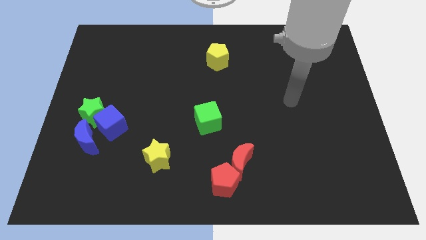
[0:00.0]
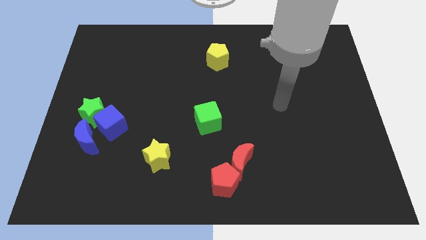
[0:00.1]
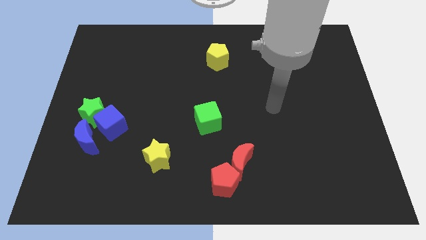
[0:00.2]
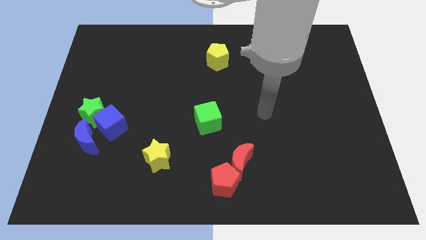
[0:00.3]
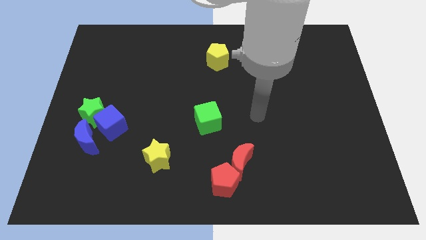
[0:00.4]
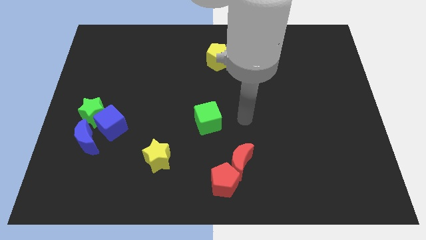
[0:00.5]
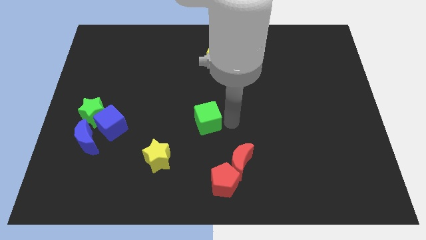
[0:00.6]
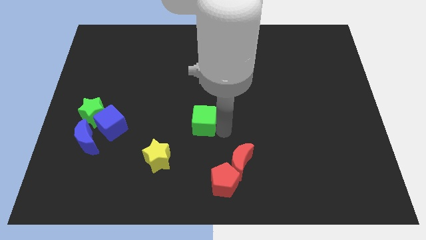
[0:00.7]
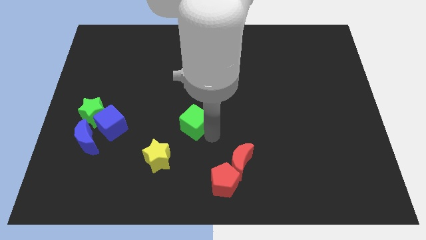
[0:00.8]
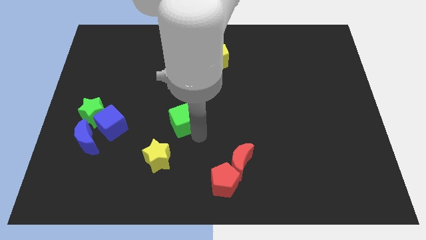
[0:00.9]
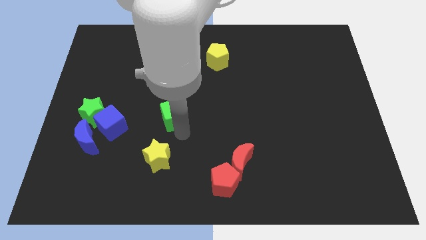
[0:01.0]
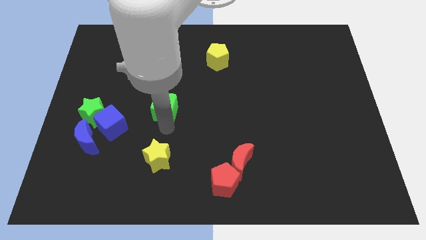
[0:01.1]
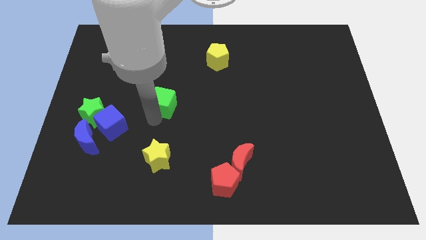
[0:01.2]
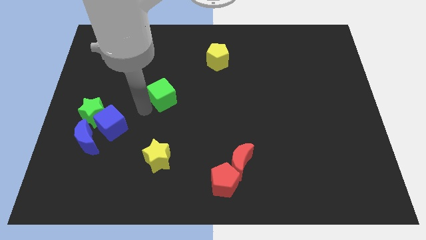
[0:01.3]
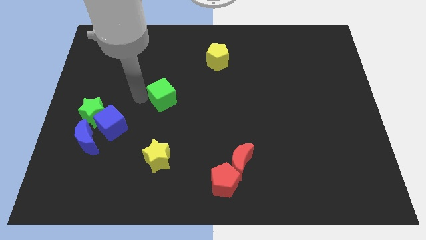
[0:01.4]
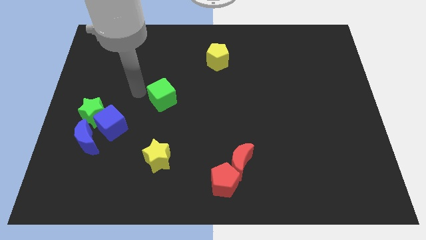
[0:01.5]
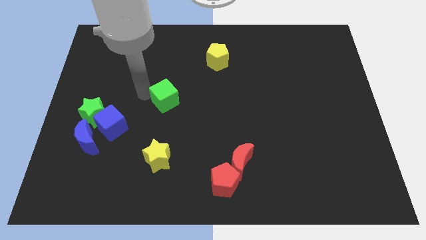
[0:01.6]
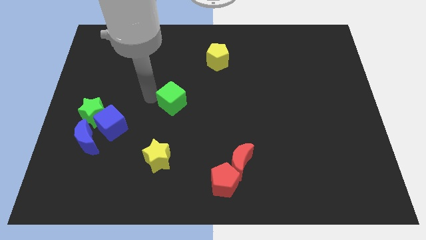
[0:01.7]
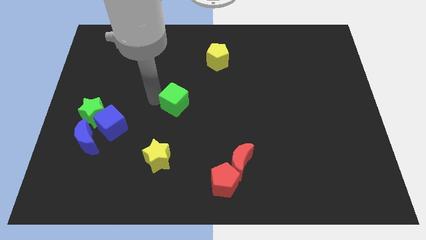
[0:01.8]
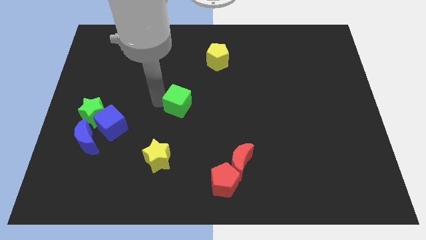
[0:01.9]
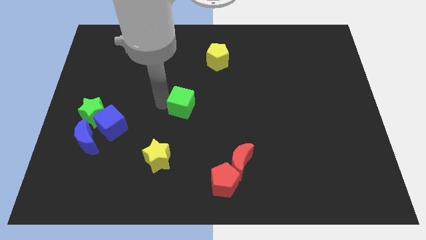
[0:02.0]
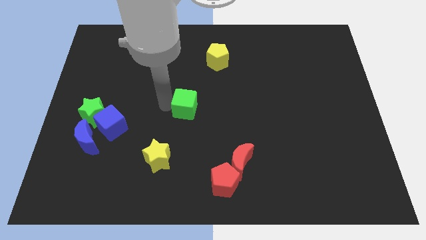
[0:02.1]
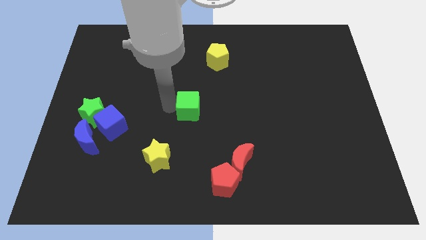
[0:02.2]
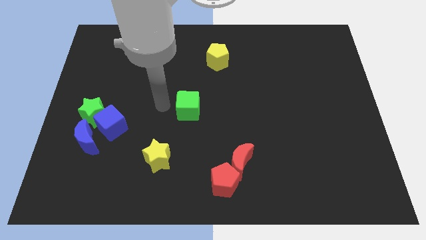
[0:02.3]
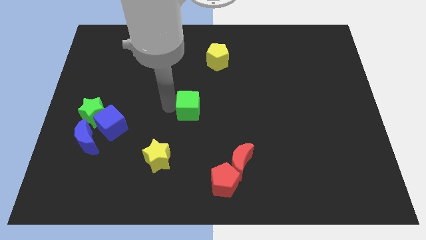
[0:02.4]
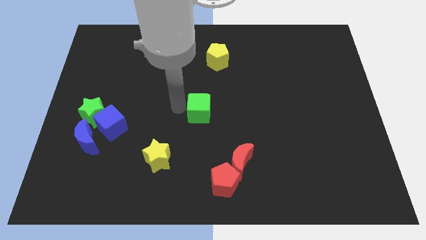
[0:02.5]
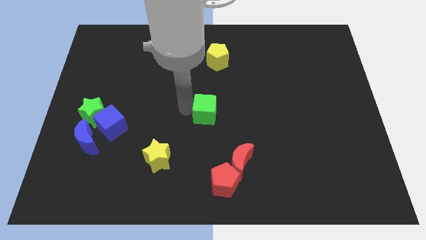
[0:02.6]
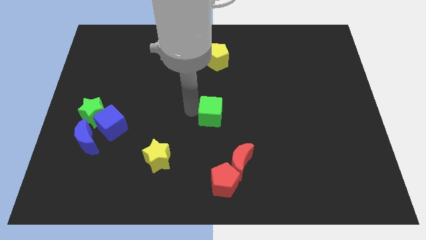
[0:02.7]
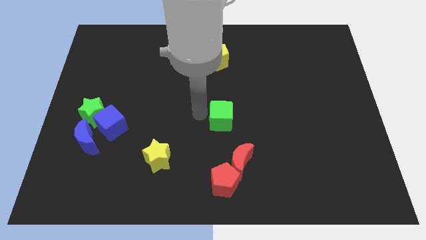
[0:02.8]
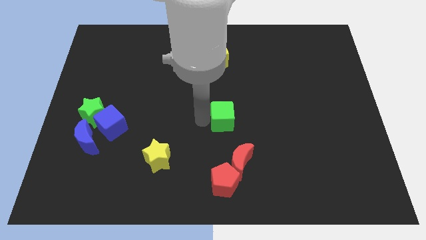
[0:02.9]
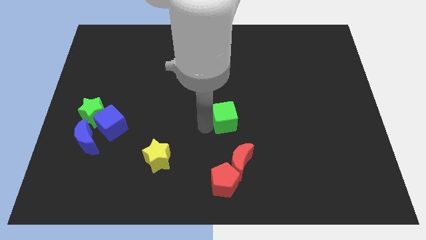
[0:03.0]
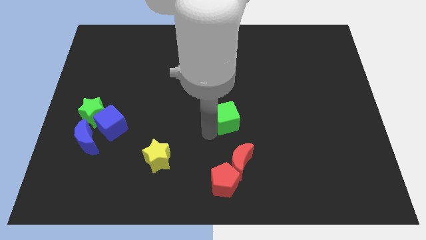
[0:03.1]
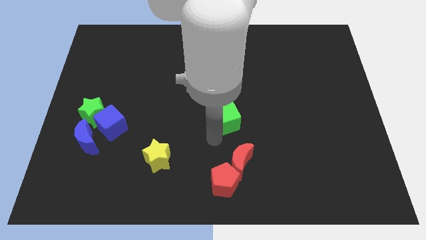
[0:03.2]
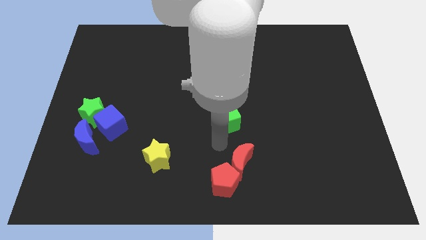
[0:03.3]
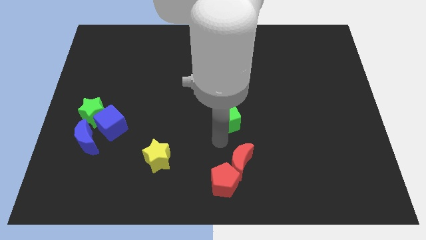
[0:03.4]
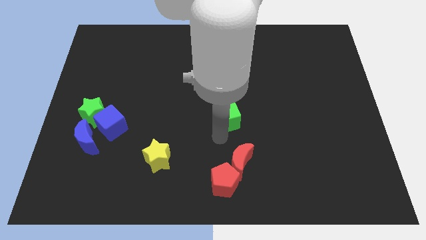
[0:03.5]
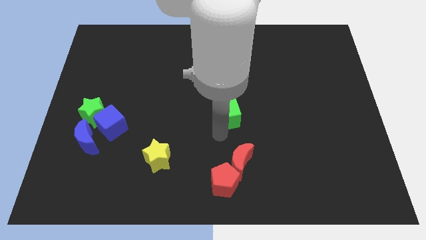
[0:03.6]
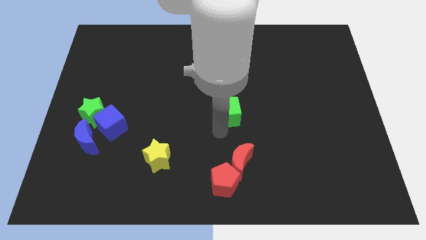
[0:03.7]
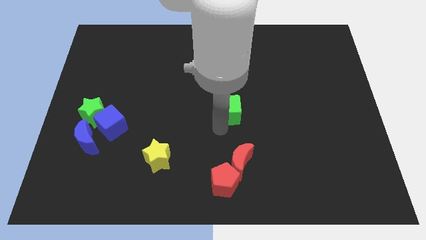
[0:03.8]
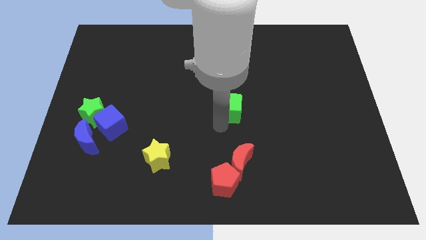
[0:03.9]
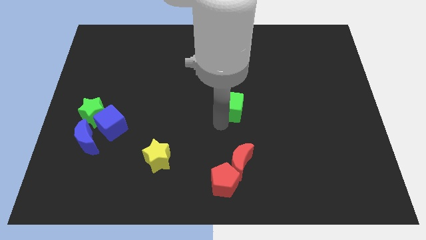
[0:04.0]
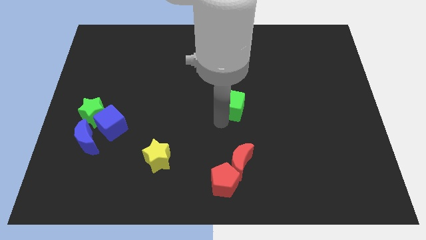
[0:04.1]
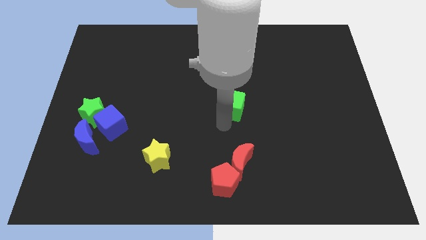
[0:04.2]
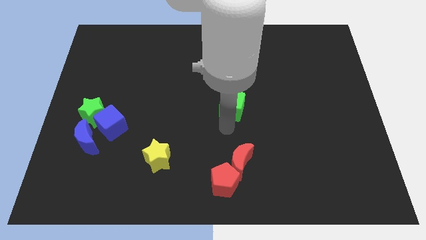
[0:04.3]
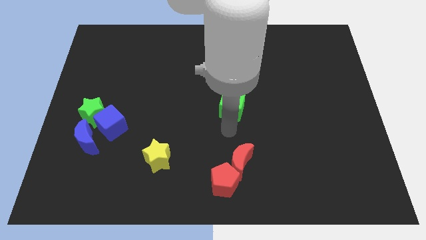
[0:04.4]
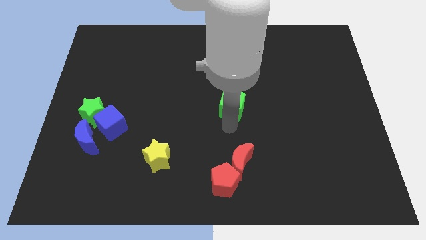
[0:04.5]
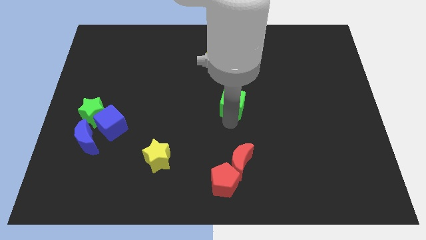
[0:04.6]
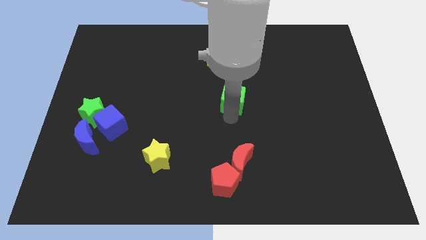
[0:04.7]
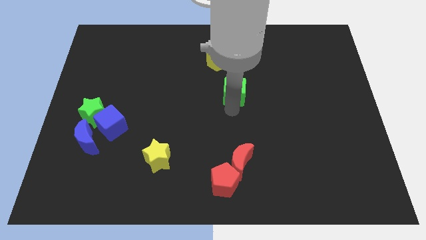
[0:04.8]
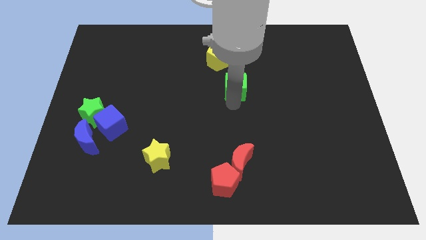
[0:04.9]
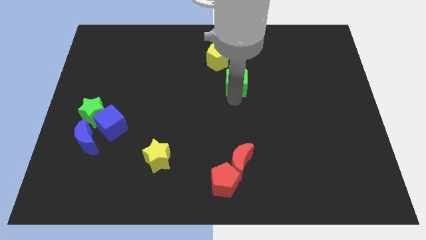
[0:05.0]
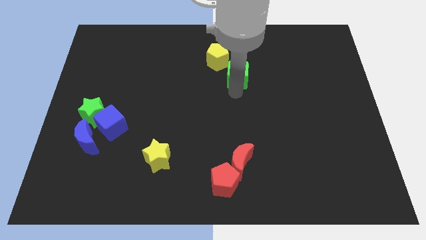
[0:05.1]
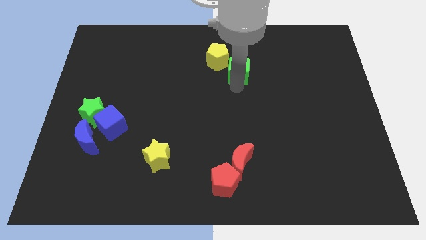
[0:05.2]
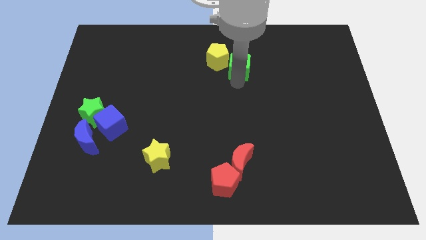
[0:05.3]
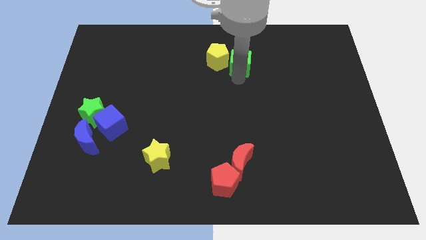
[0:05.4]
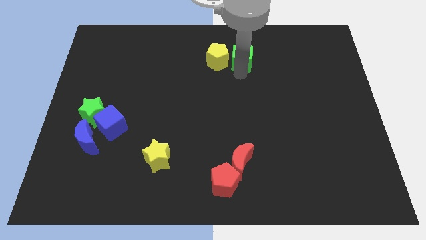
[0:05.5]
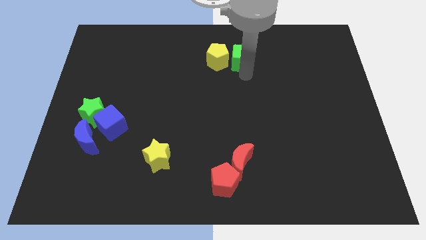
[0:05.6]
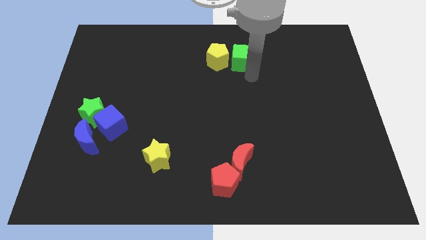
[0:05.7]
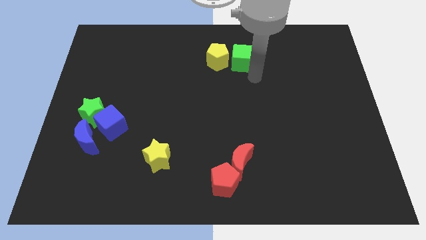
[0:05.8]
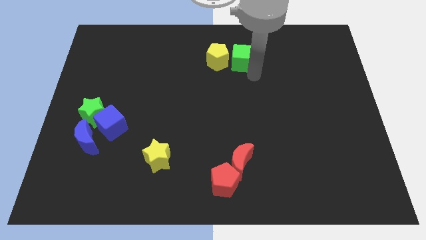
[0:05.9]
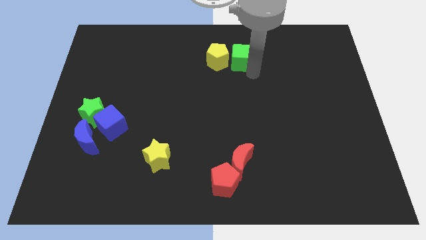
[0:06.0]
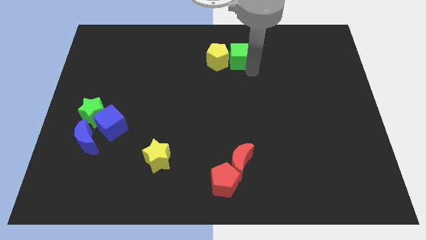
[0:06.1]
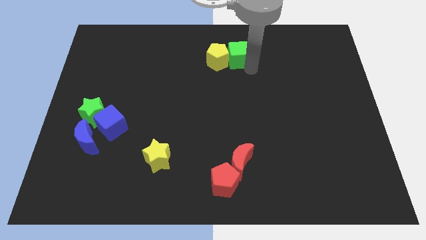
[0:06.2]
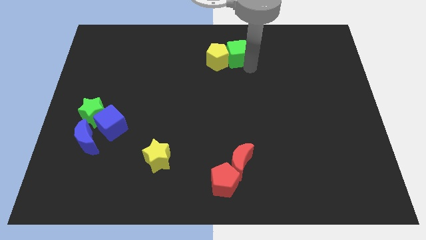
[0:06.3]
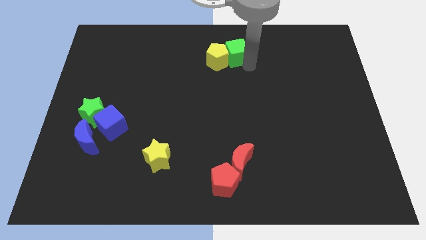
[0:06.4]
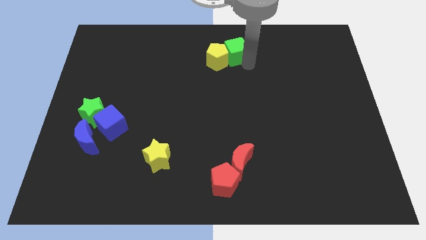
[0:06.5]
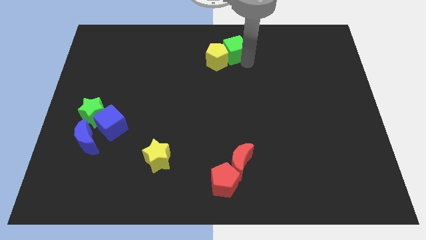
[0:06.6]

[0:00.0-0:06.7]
put the green cube to the top
